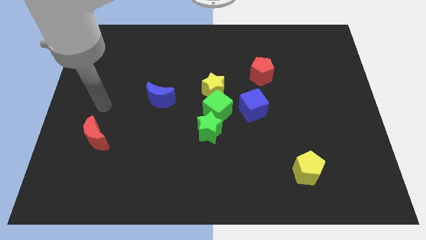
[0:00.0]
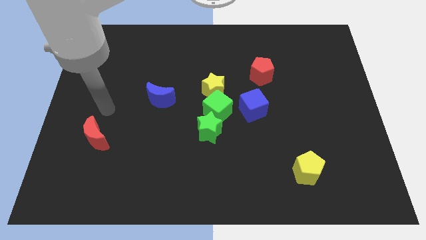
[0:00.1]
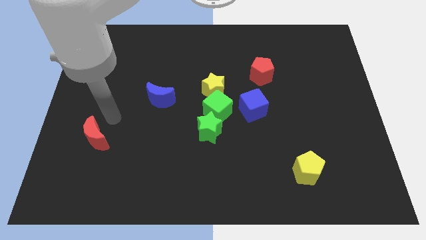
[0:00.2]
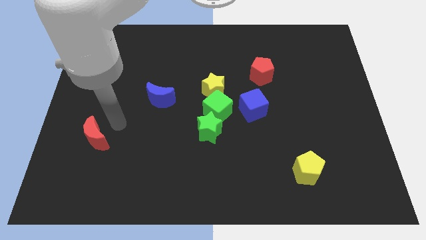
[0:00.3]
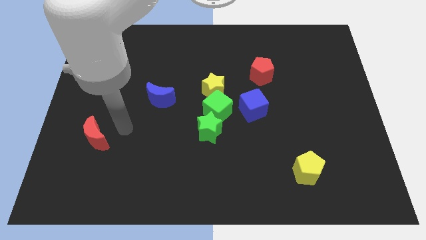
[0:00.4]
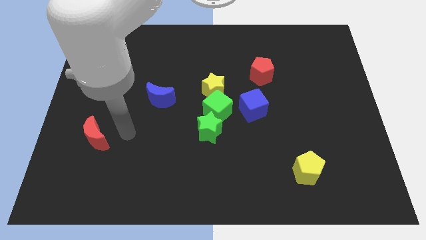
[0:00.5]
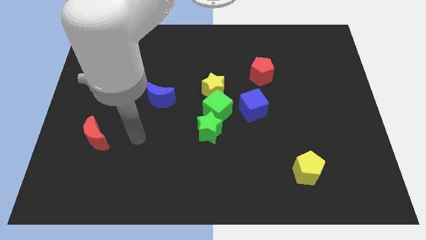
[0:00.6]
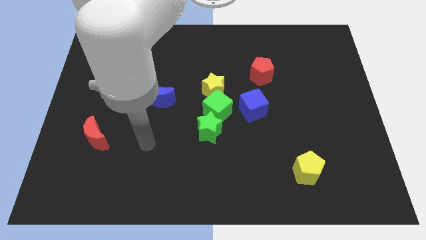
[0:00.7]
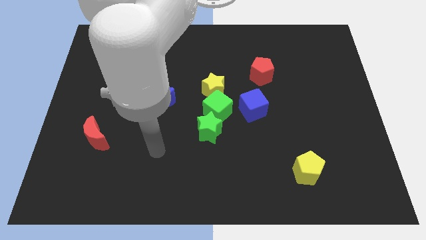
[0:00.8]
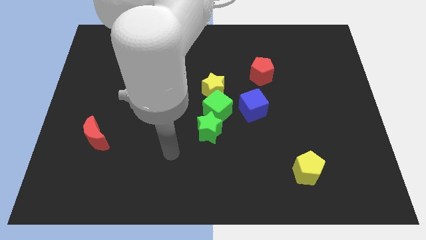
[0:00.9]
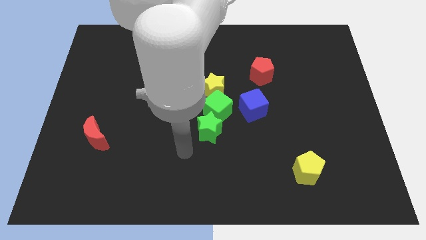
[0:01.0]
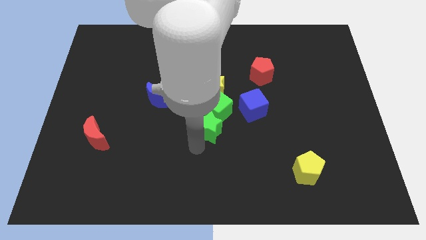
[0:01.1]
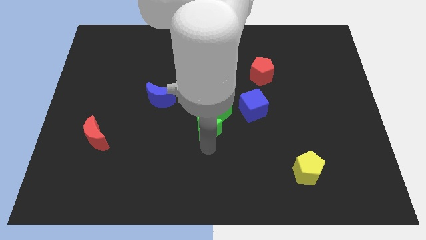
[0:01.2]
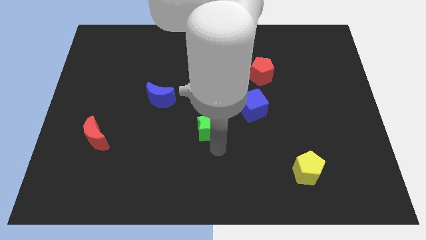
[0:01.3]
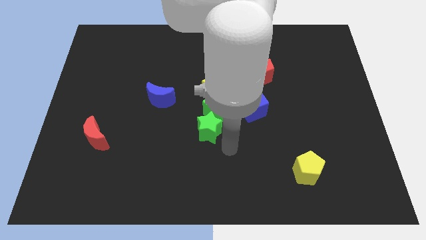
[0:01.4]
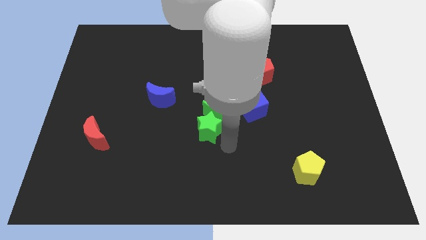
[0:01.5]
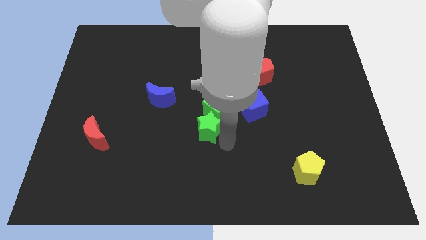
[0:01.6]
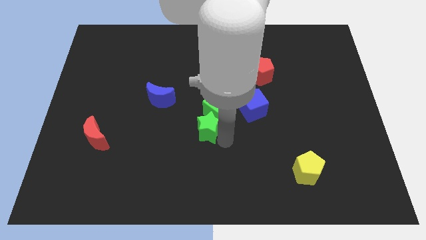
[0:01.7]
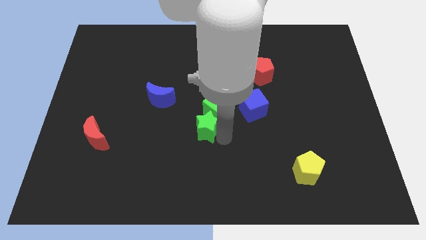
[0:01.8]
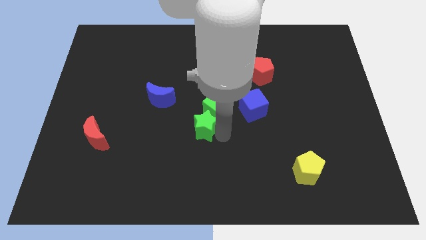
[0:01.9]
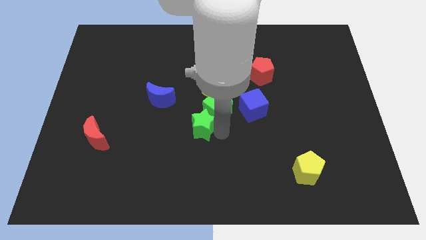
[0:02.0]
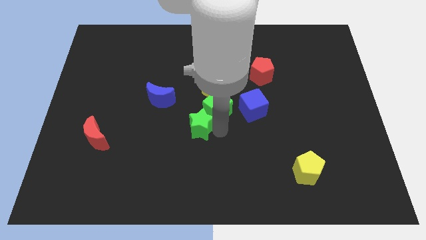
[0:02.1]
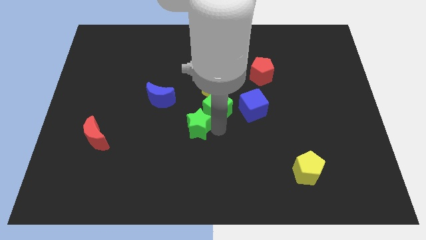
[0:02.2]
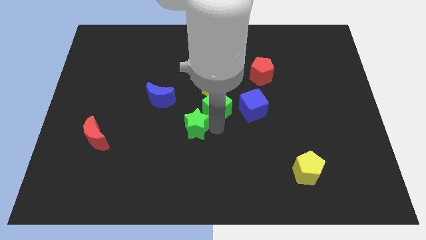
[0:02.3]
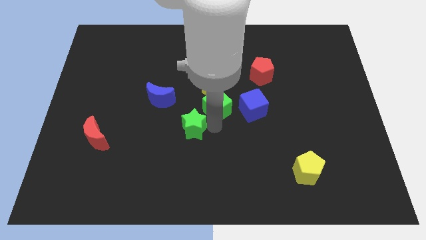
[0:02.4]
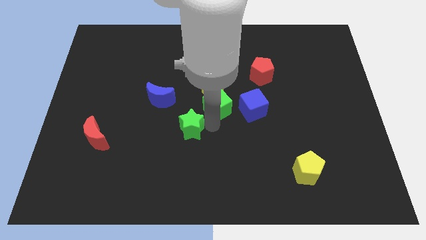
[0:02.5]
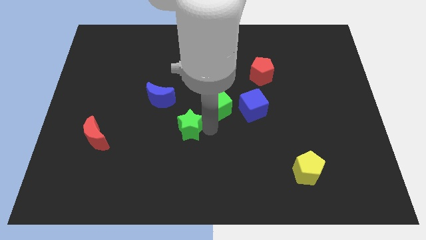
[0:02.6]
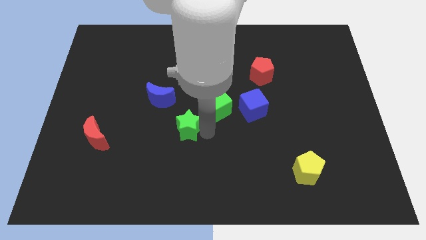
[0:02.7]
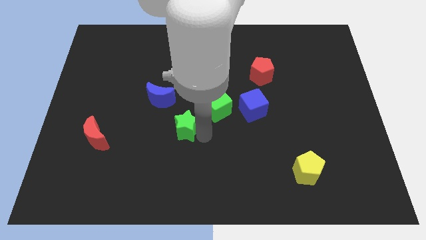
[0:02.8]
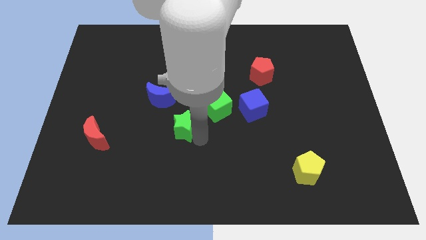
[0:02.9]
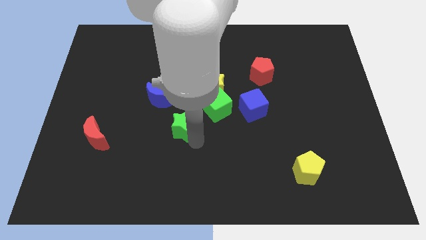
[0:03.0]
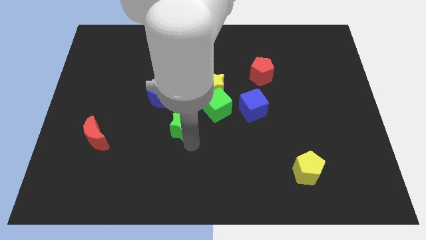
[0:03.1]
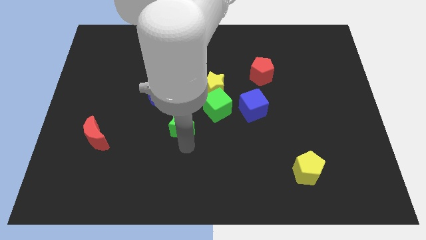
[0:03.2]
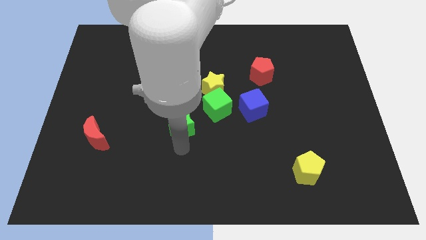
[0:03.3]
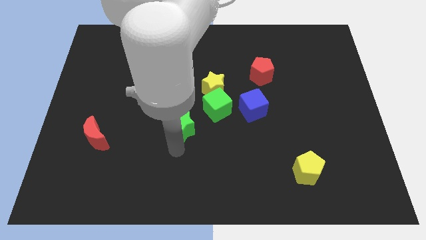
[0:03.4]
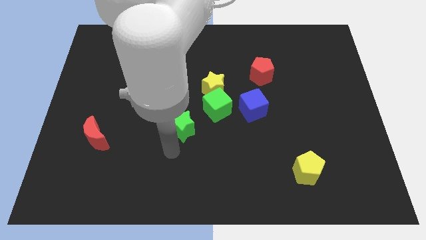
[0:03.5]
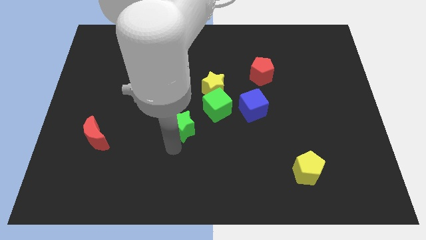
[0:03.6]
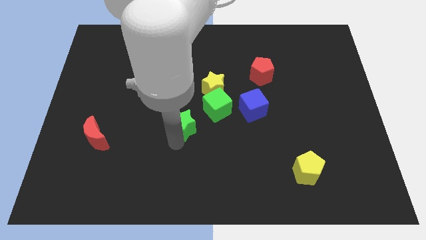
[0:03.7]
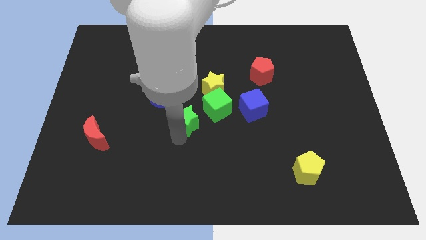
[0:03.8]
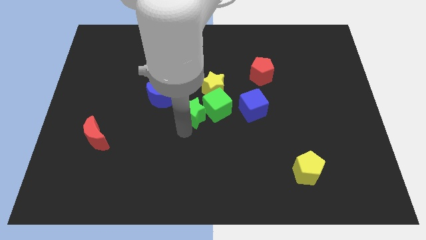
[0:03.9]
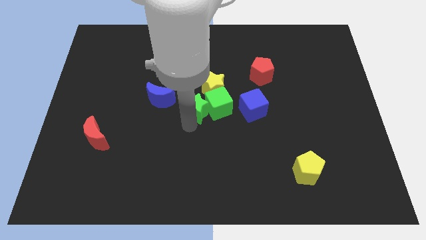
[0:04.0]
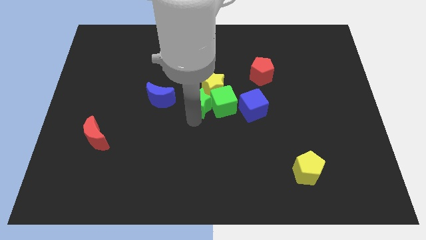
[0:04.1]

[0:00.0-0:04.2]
move the green star upwards a bit

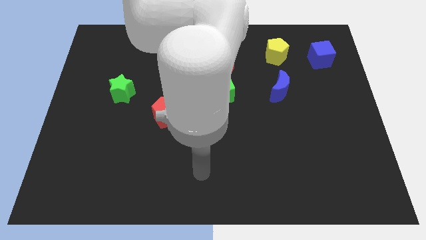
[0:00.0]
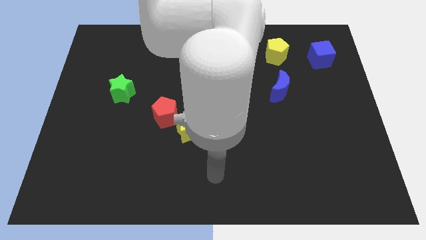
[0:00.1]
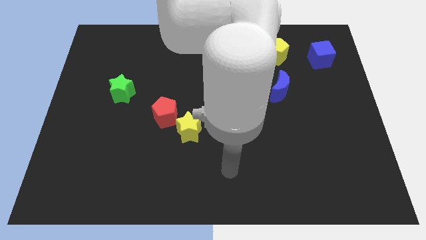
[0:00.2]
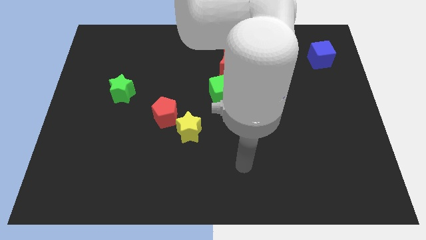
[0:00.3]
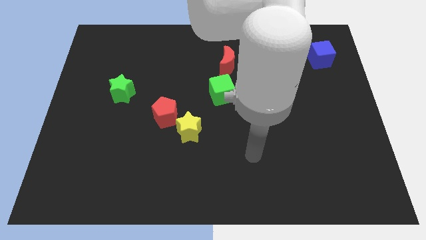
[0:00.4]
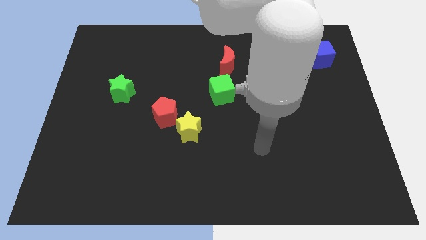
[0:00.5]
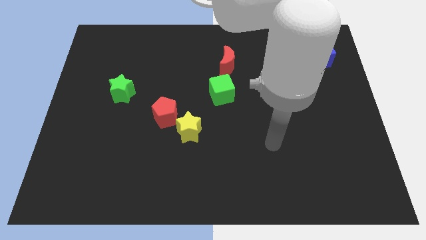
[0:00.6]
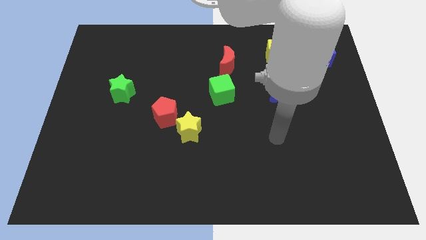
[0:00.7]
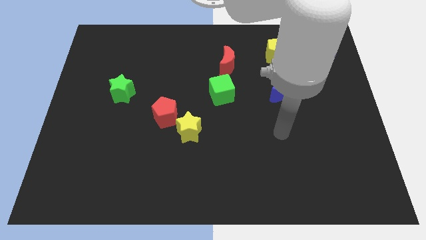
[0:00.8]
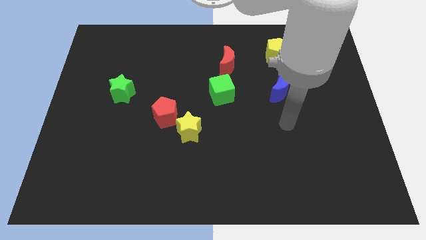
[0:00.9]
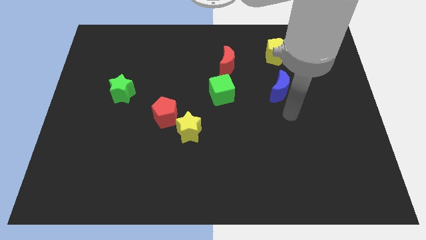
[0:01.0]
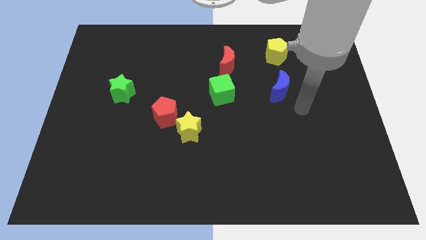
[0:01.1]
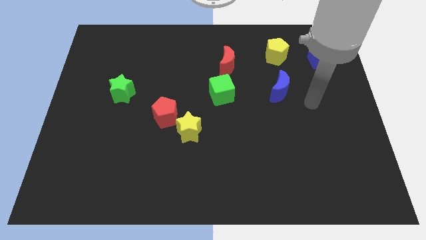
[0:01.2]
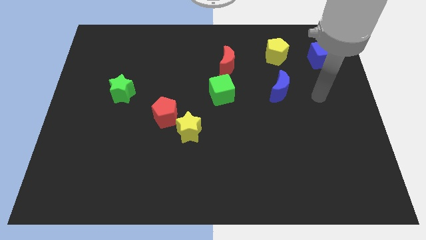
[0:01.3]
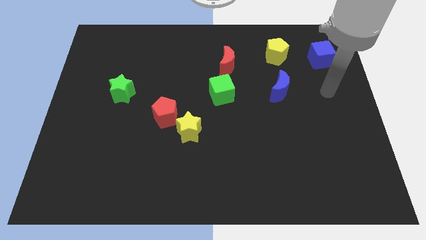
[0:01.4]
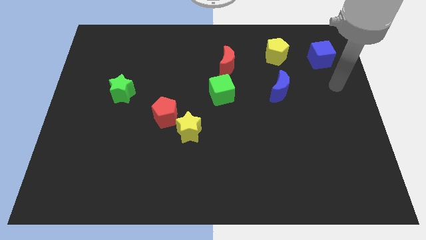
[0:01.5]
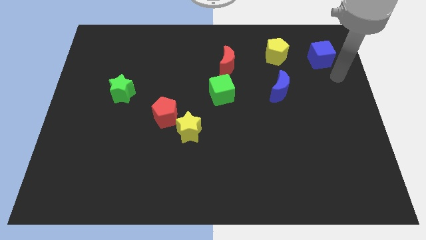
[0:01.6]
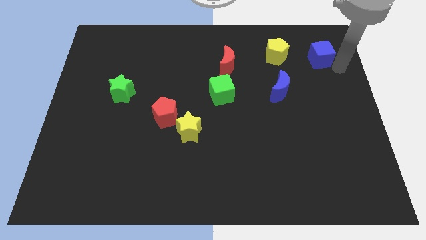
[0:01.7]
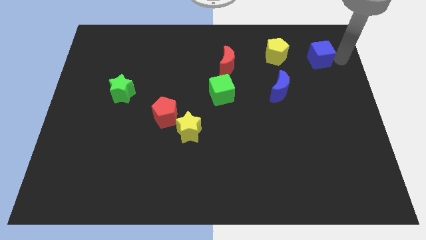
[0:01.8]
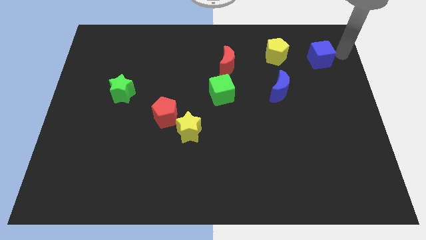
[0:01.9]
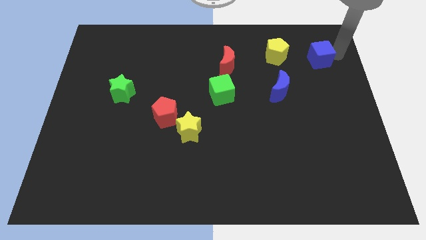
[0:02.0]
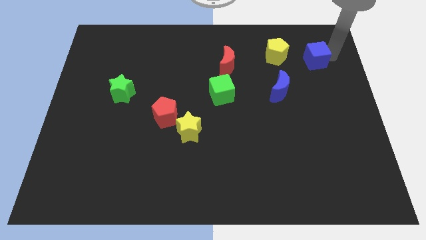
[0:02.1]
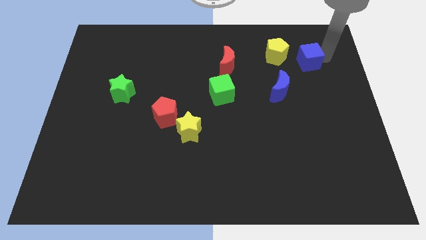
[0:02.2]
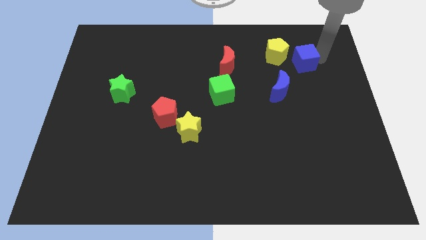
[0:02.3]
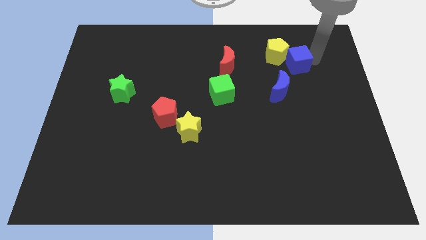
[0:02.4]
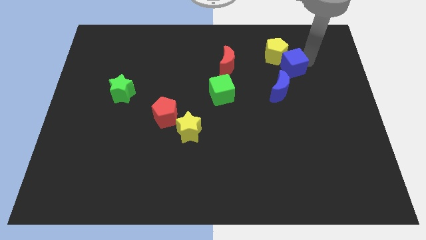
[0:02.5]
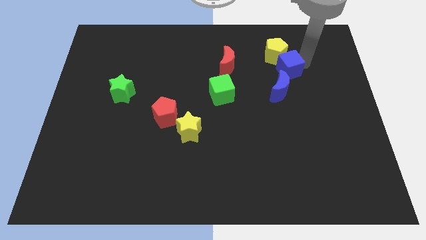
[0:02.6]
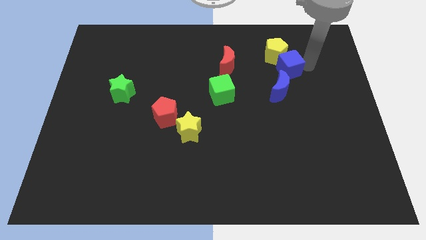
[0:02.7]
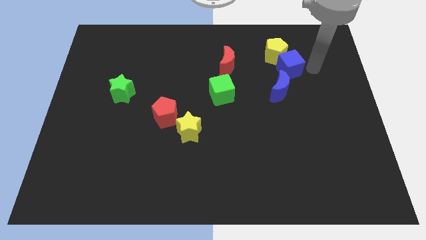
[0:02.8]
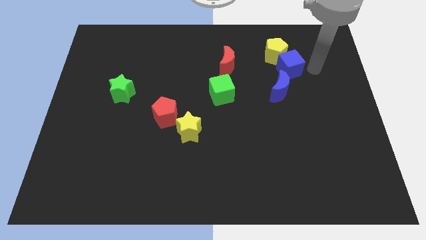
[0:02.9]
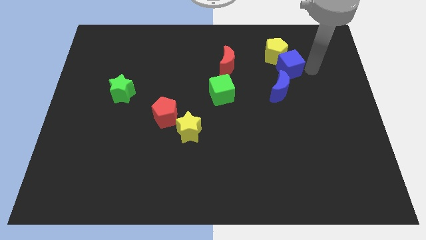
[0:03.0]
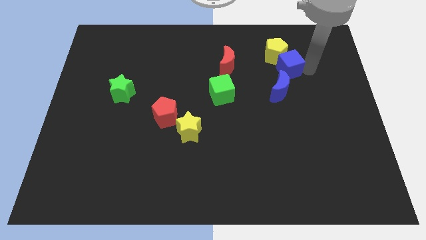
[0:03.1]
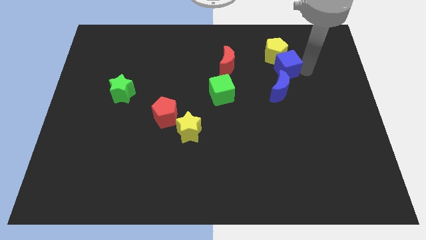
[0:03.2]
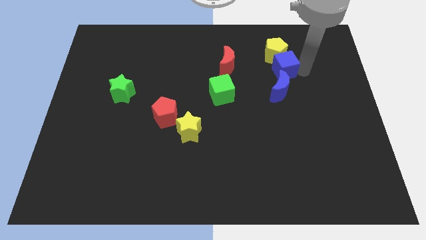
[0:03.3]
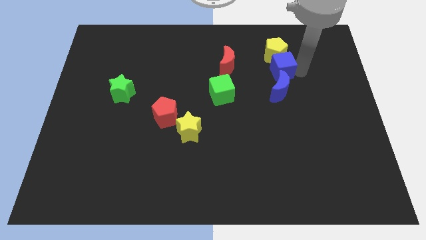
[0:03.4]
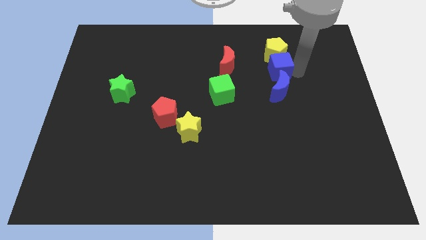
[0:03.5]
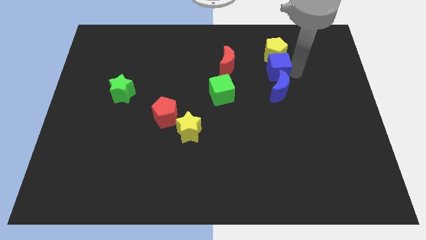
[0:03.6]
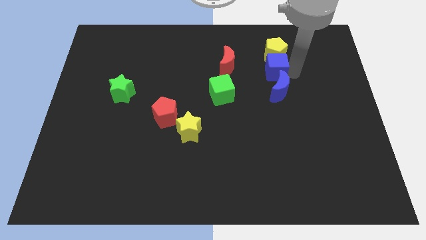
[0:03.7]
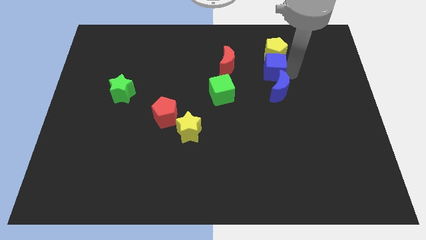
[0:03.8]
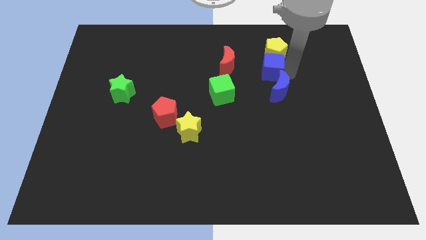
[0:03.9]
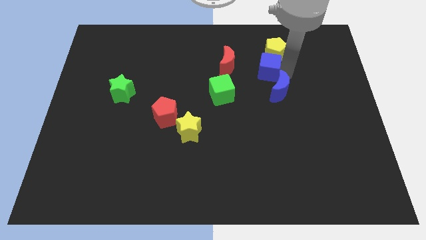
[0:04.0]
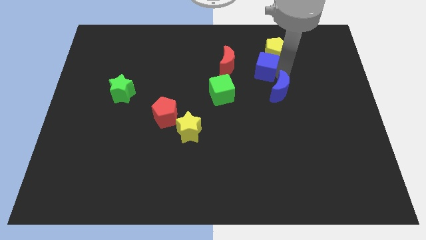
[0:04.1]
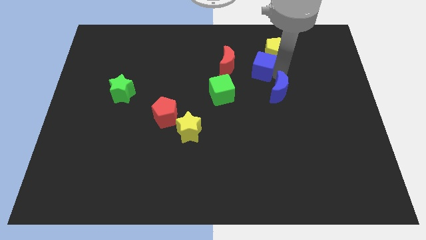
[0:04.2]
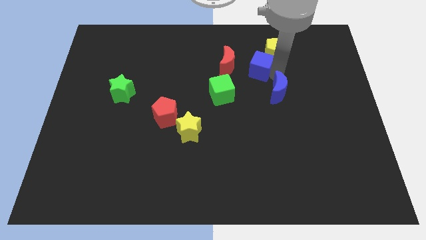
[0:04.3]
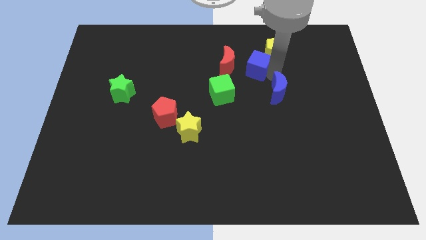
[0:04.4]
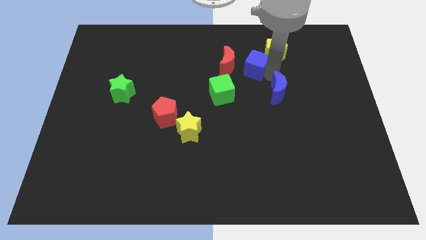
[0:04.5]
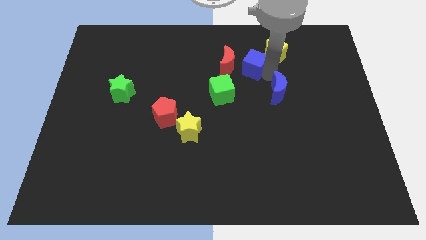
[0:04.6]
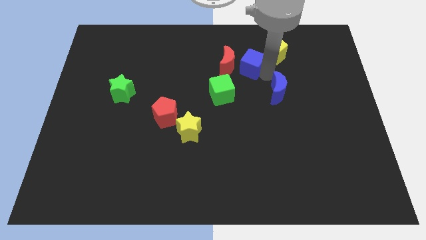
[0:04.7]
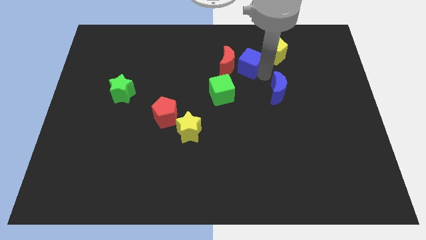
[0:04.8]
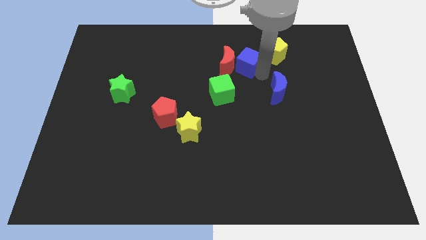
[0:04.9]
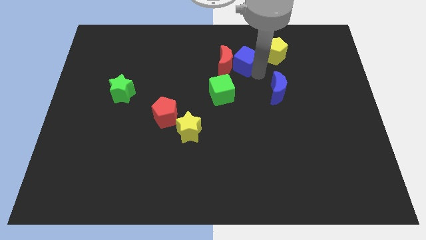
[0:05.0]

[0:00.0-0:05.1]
push the blue cube left
